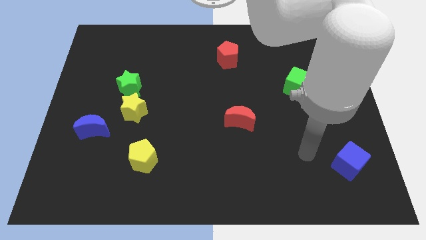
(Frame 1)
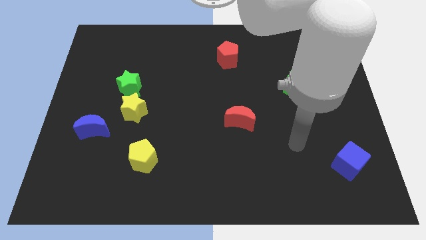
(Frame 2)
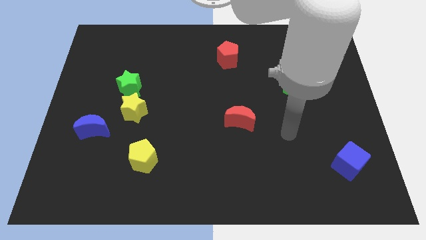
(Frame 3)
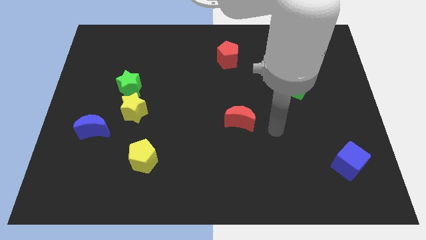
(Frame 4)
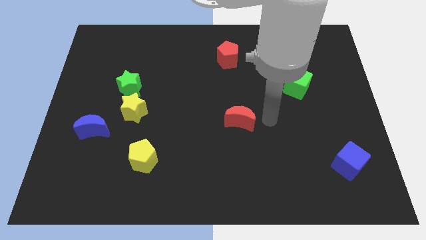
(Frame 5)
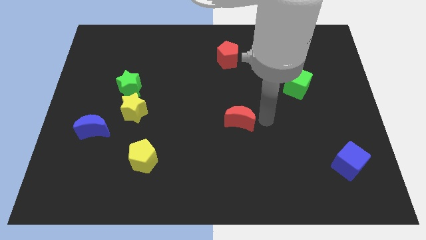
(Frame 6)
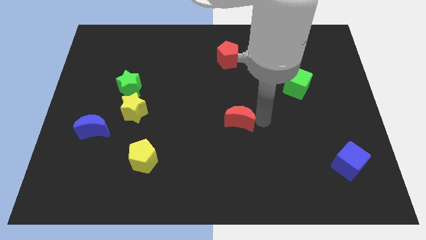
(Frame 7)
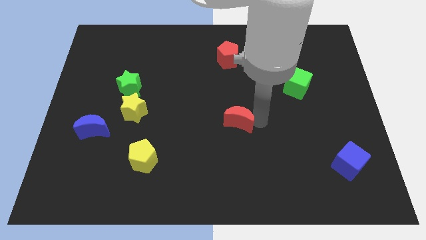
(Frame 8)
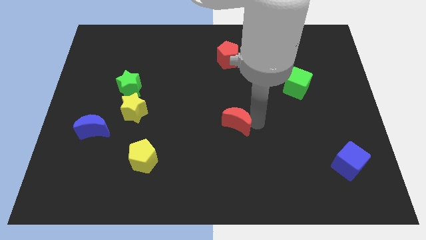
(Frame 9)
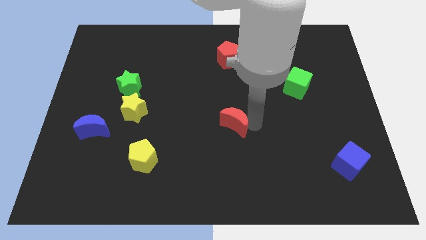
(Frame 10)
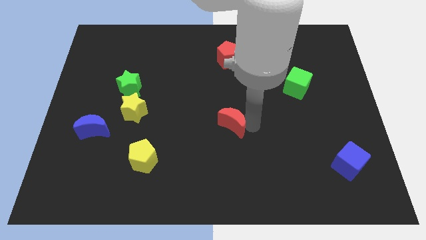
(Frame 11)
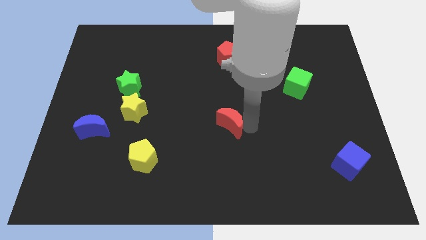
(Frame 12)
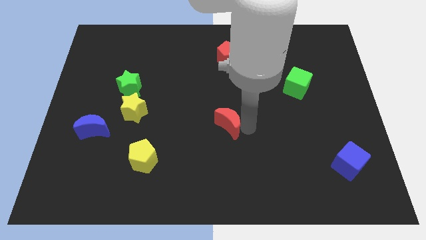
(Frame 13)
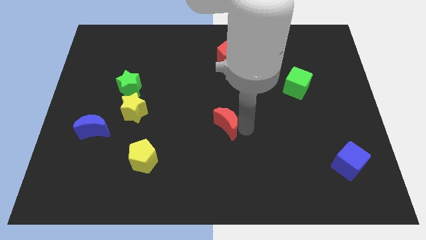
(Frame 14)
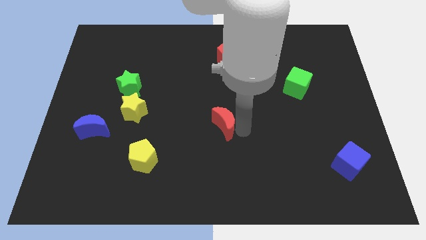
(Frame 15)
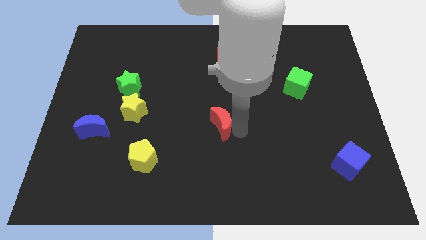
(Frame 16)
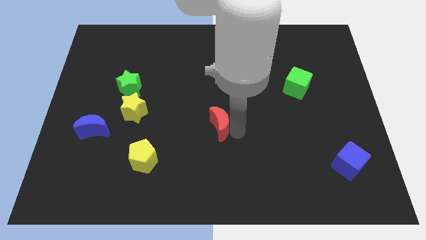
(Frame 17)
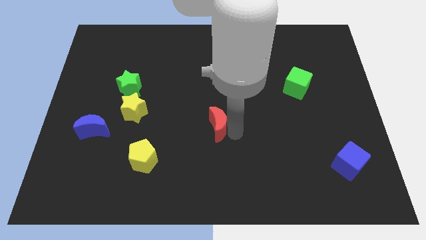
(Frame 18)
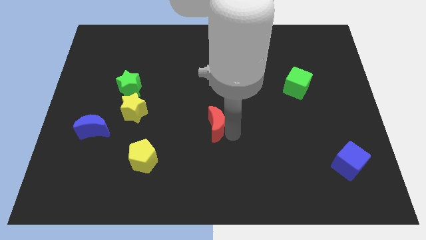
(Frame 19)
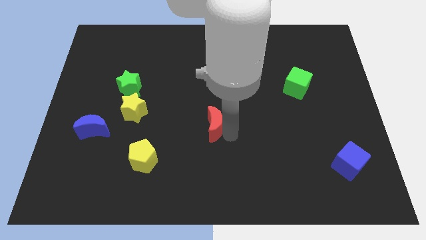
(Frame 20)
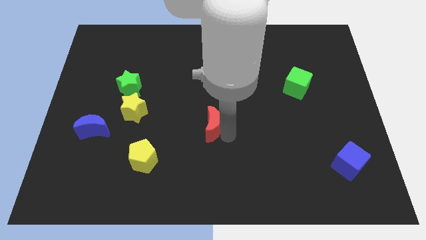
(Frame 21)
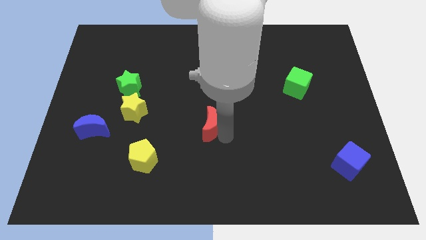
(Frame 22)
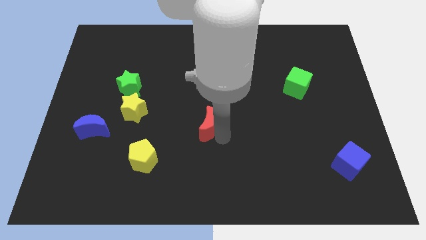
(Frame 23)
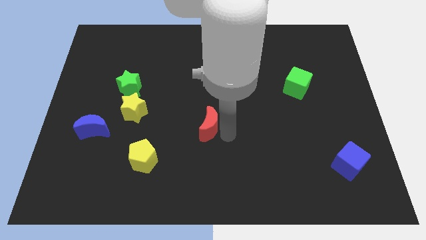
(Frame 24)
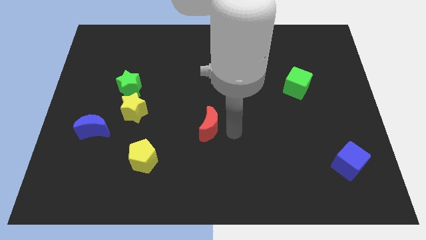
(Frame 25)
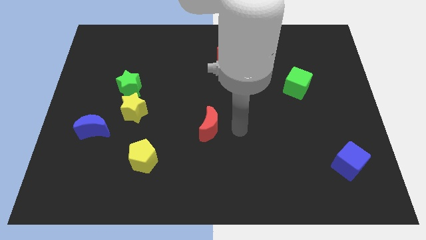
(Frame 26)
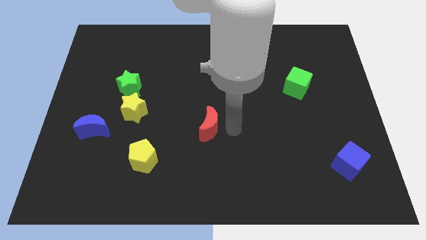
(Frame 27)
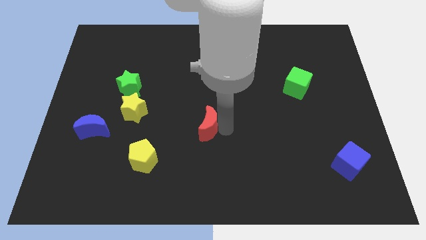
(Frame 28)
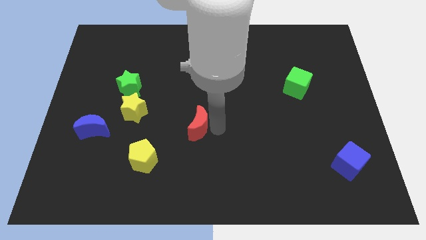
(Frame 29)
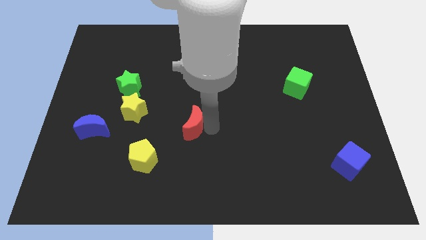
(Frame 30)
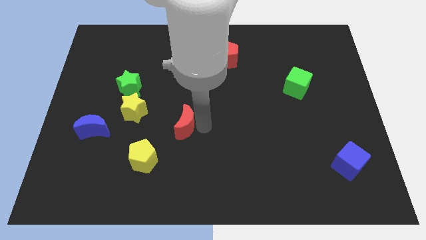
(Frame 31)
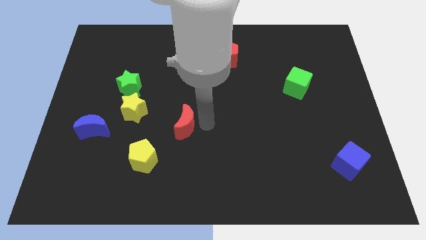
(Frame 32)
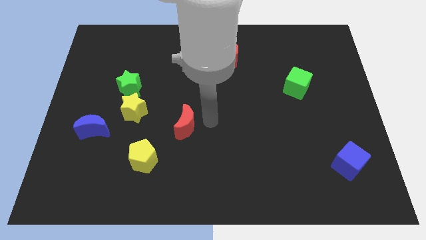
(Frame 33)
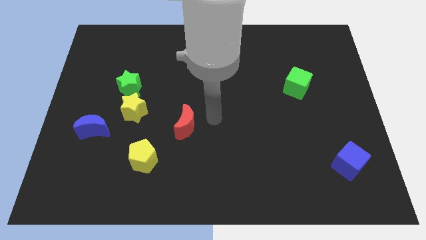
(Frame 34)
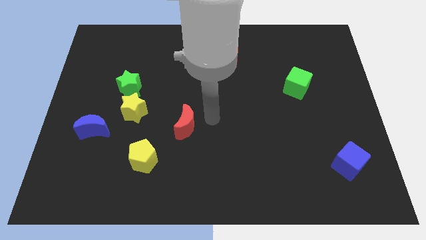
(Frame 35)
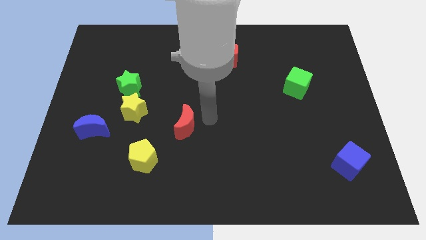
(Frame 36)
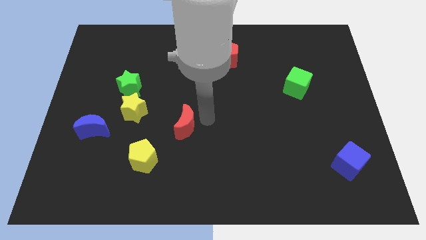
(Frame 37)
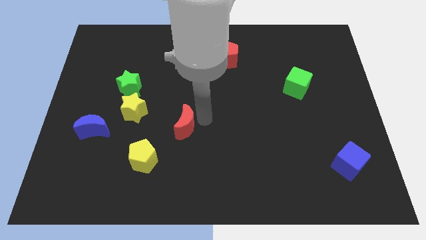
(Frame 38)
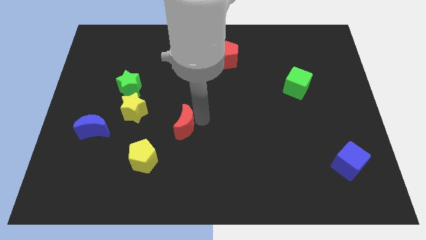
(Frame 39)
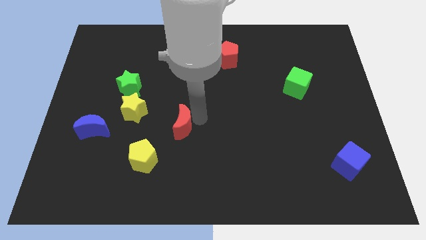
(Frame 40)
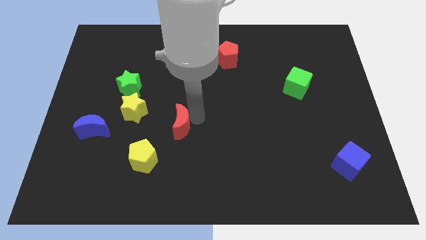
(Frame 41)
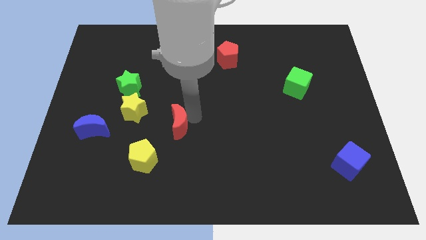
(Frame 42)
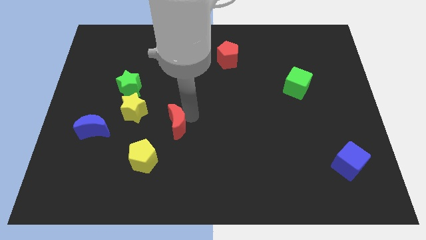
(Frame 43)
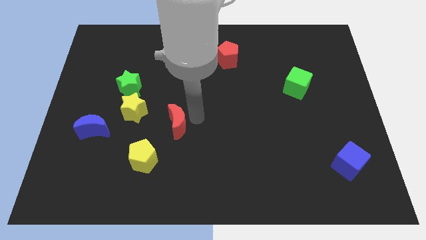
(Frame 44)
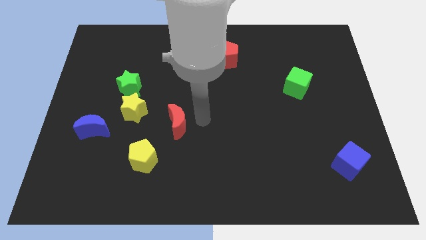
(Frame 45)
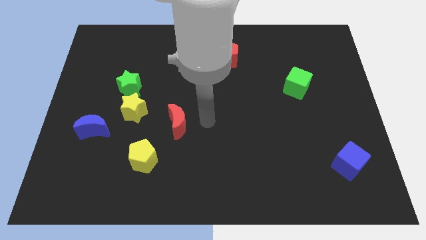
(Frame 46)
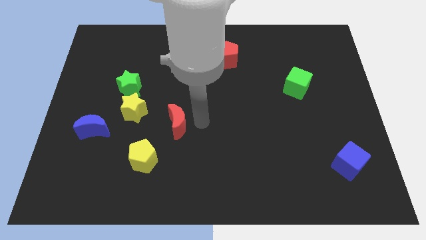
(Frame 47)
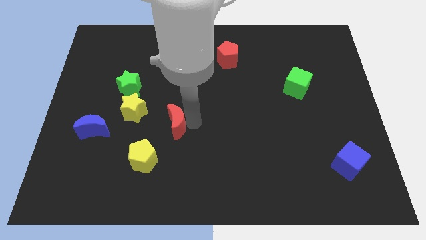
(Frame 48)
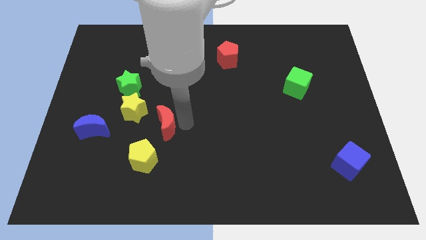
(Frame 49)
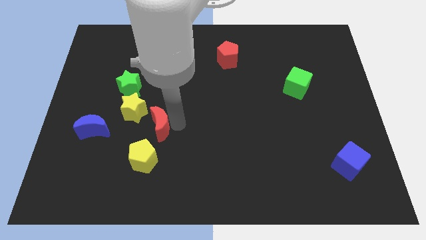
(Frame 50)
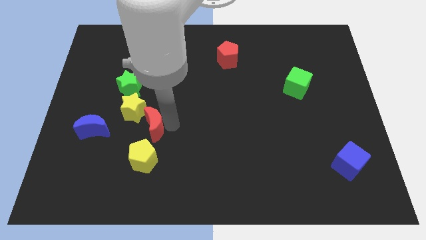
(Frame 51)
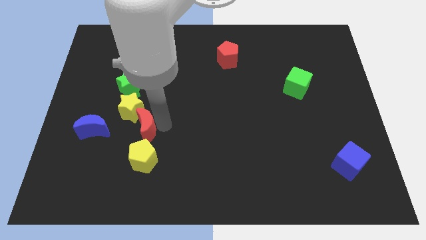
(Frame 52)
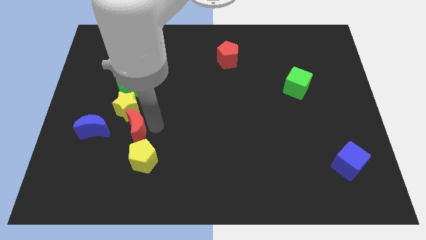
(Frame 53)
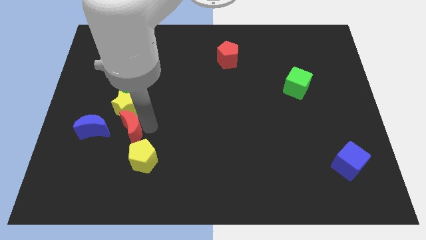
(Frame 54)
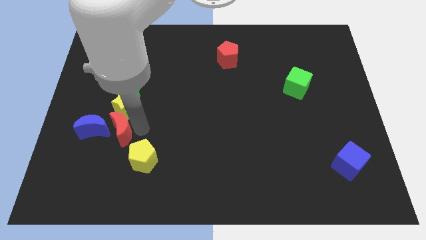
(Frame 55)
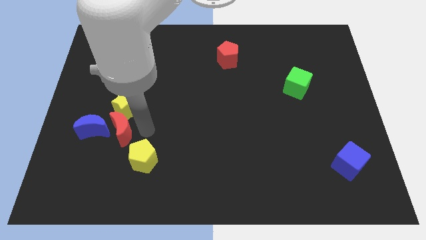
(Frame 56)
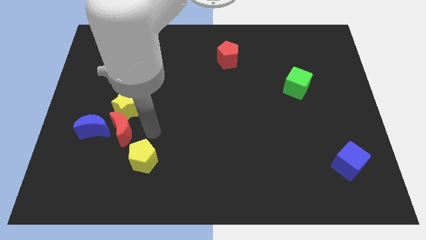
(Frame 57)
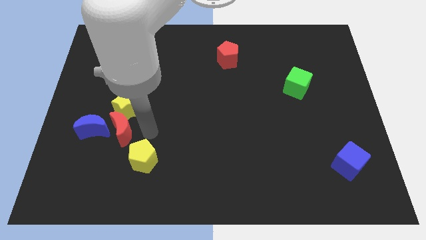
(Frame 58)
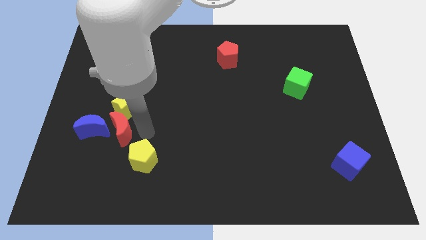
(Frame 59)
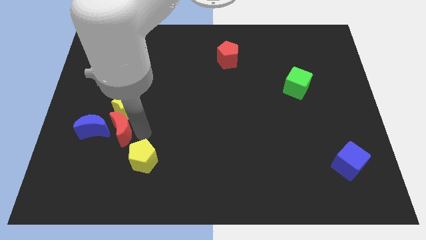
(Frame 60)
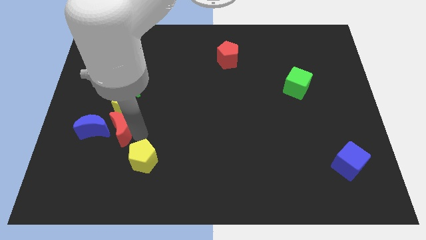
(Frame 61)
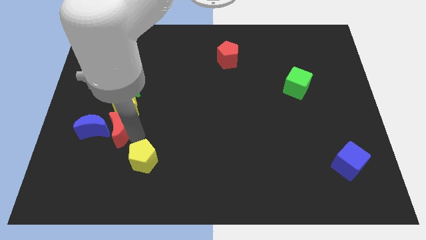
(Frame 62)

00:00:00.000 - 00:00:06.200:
slide the red moon to the blue moon

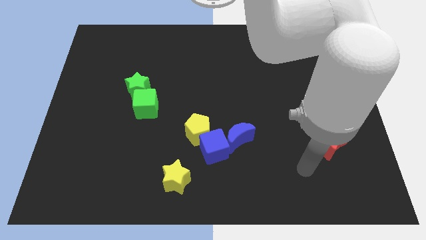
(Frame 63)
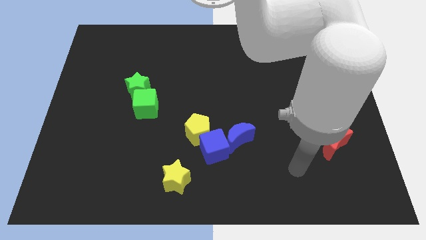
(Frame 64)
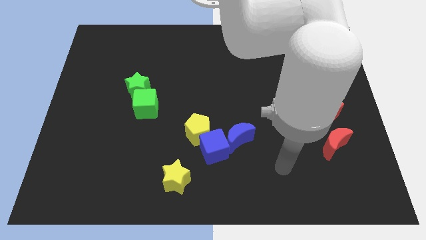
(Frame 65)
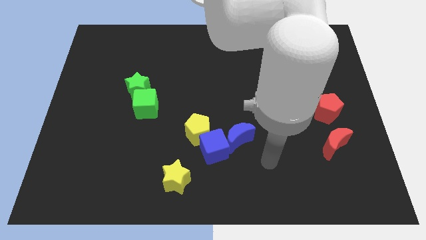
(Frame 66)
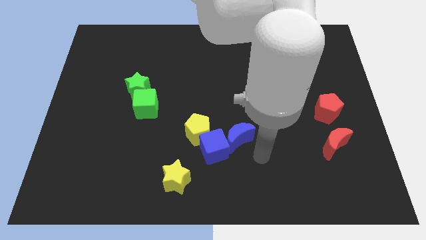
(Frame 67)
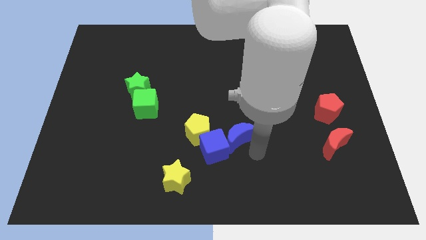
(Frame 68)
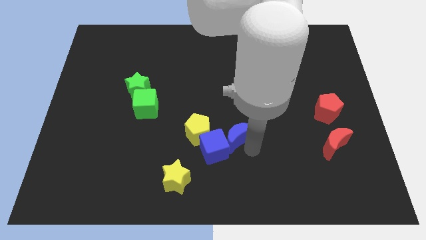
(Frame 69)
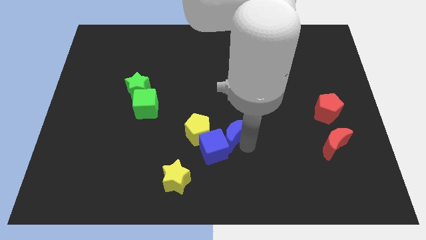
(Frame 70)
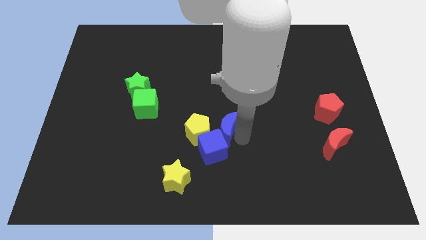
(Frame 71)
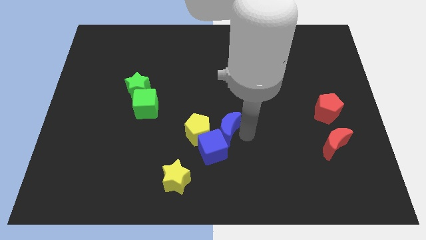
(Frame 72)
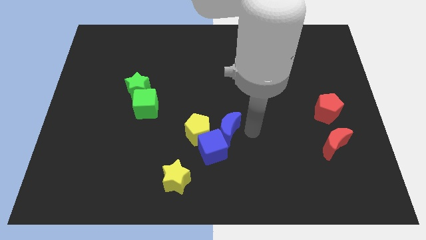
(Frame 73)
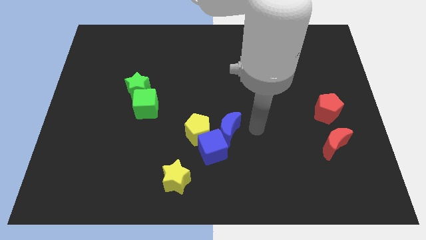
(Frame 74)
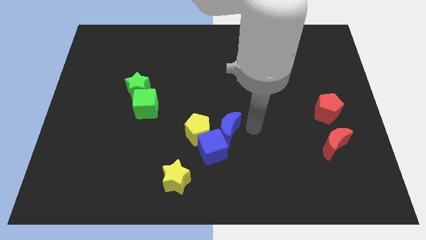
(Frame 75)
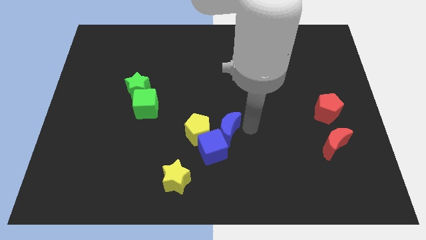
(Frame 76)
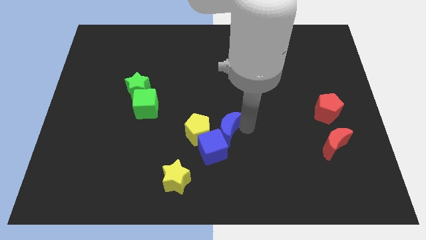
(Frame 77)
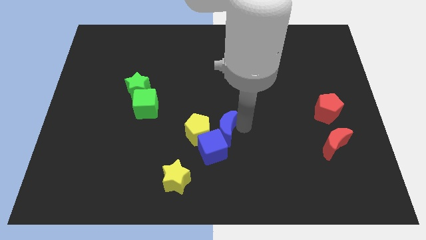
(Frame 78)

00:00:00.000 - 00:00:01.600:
move the blue moon close to the yellow pentagon
